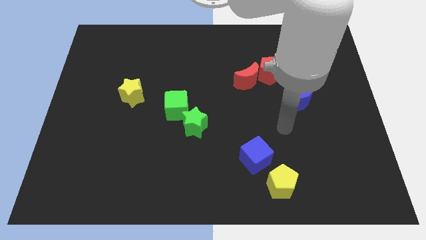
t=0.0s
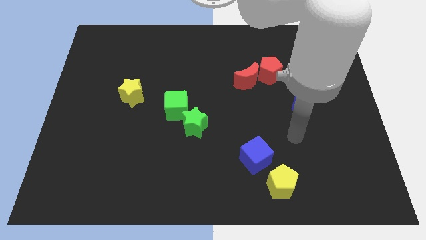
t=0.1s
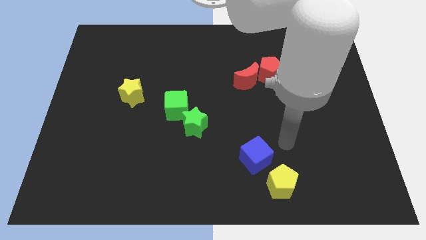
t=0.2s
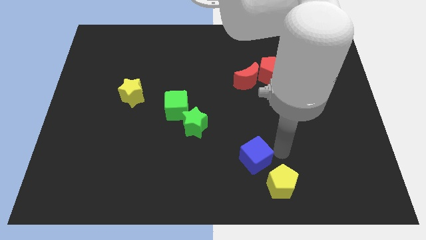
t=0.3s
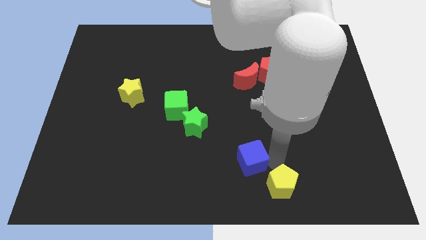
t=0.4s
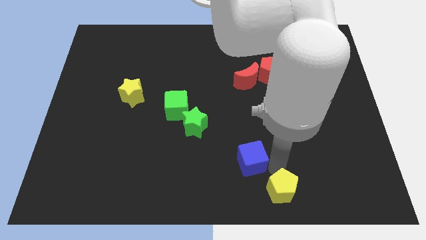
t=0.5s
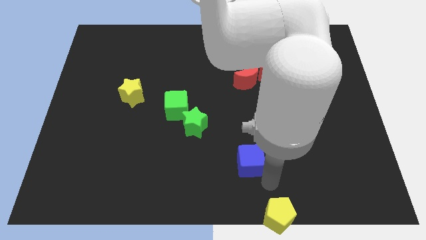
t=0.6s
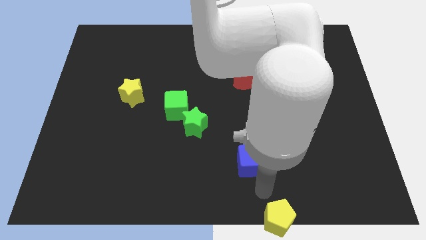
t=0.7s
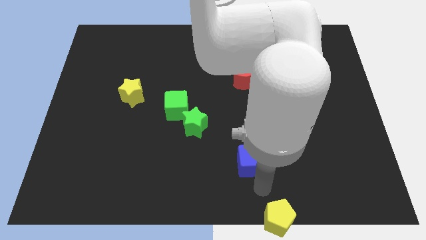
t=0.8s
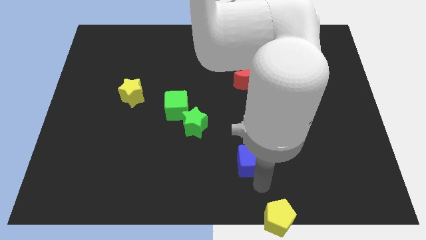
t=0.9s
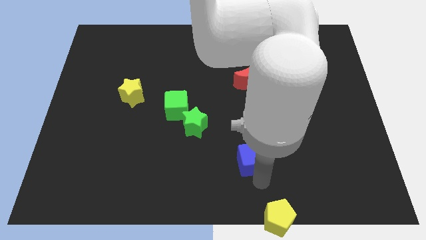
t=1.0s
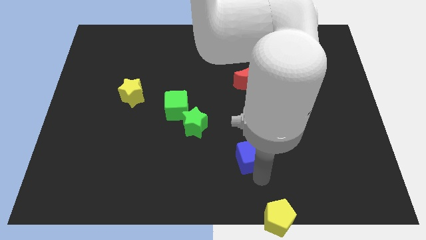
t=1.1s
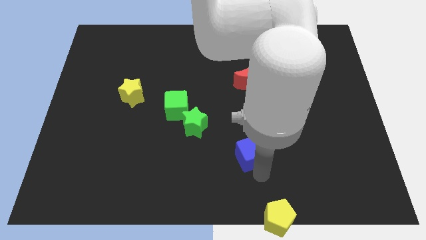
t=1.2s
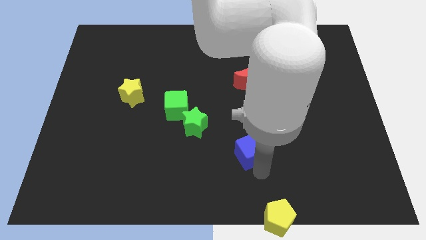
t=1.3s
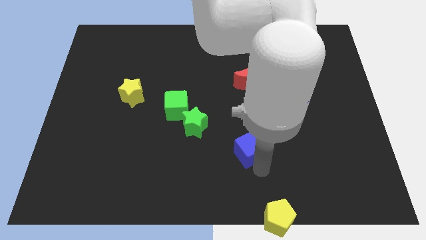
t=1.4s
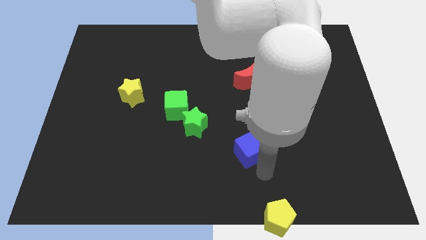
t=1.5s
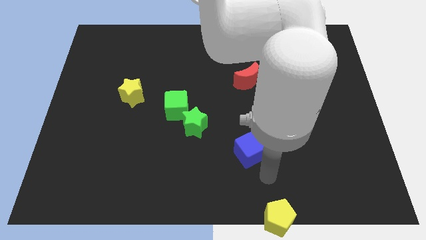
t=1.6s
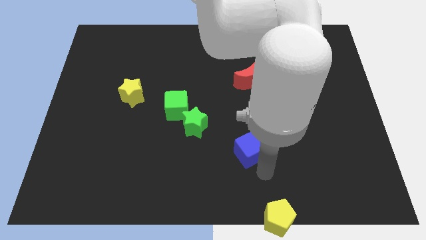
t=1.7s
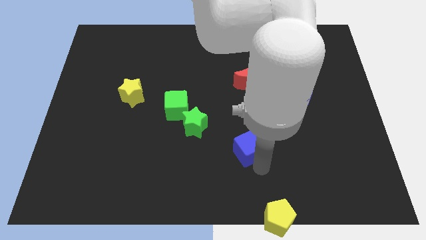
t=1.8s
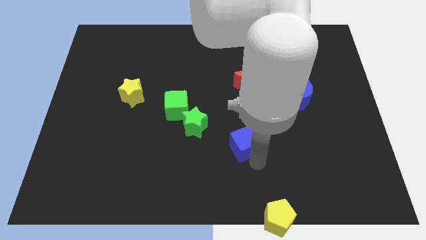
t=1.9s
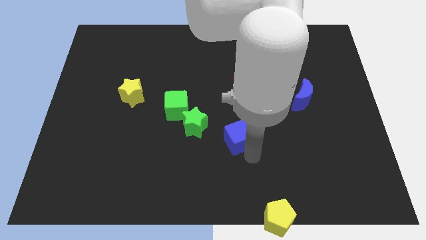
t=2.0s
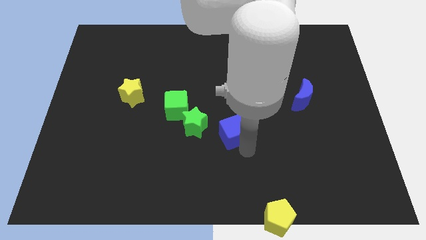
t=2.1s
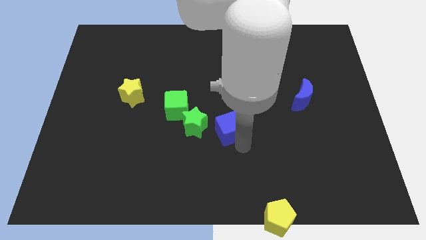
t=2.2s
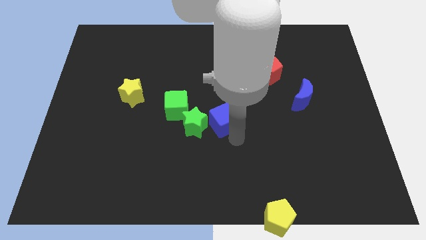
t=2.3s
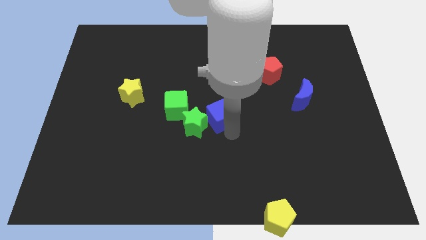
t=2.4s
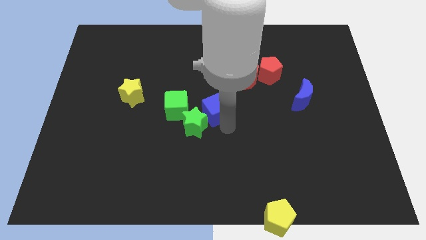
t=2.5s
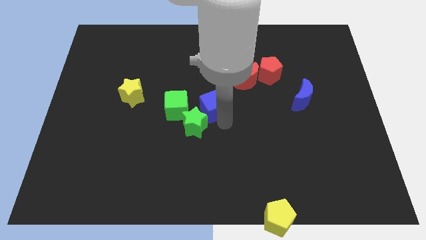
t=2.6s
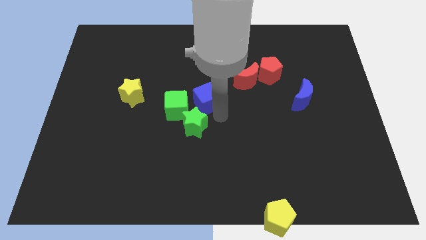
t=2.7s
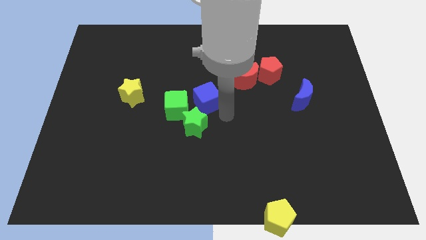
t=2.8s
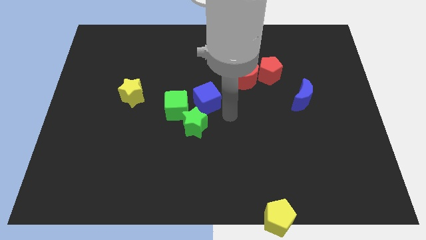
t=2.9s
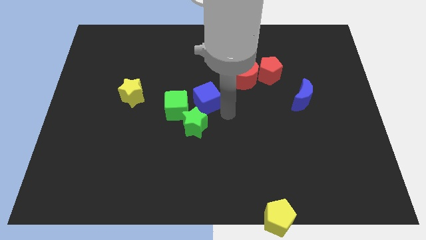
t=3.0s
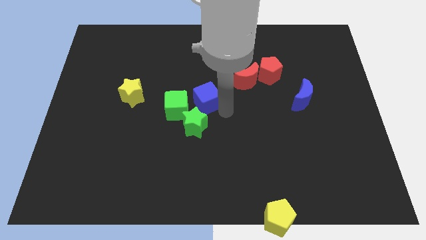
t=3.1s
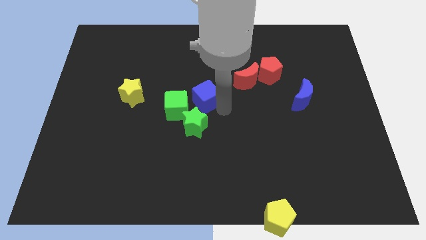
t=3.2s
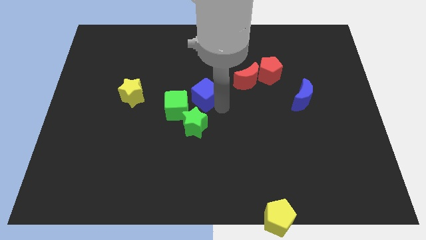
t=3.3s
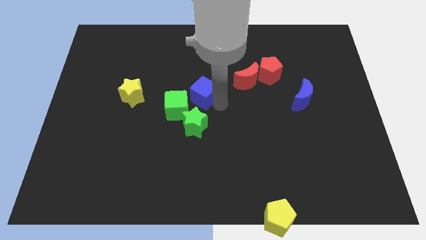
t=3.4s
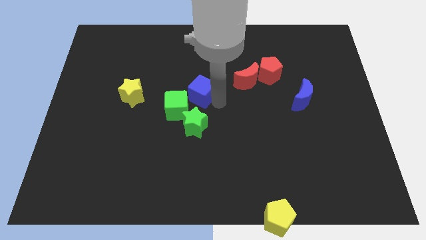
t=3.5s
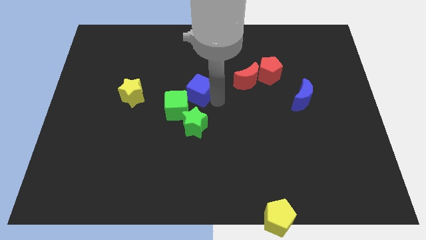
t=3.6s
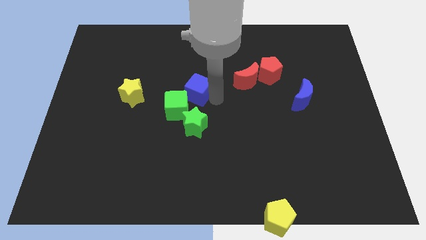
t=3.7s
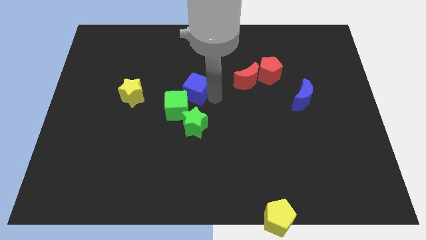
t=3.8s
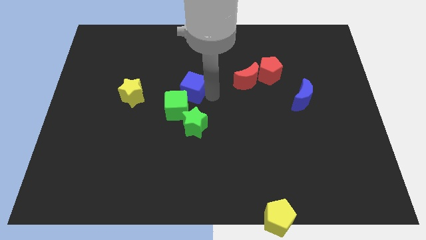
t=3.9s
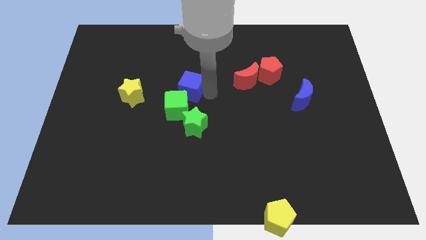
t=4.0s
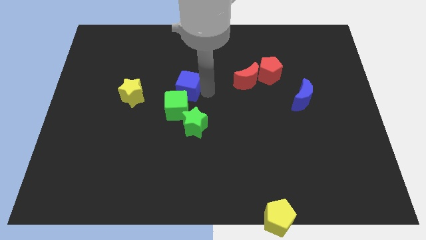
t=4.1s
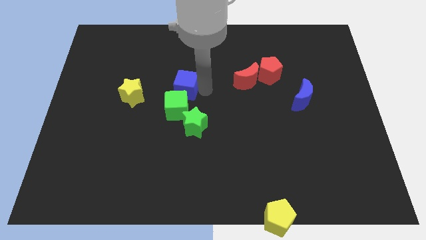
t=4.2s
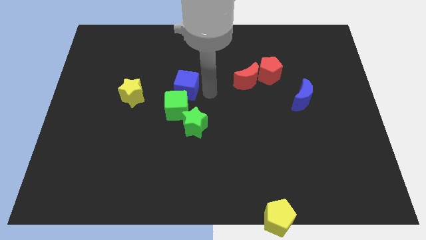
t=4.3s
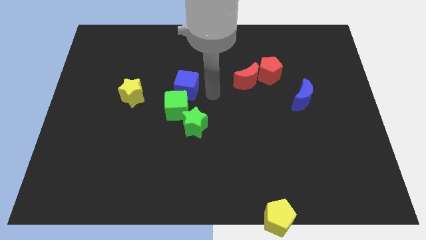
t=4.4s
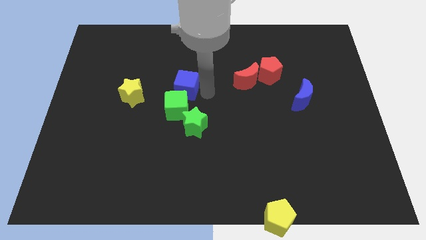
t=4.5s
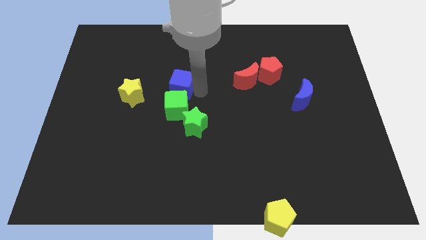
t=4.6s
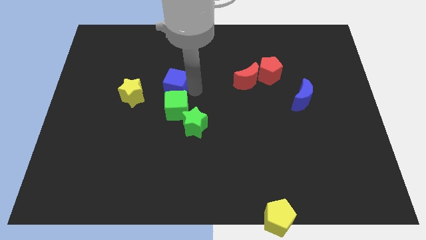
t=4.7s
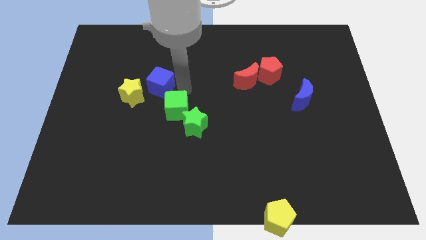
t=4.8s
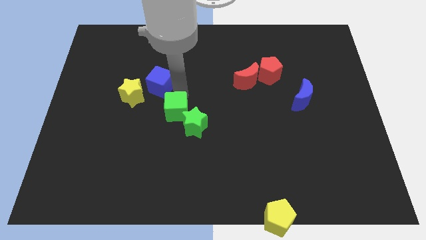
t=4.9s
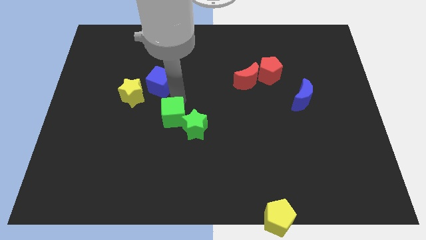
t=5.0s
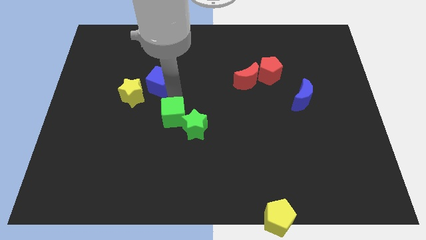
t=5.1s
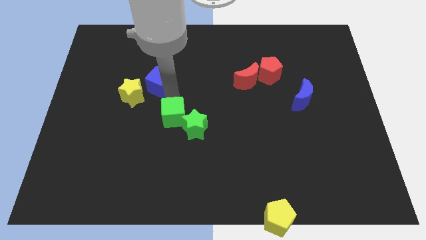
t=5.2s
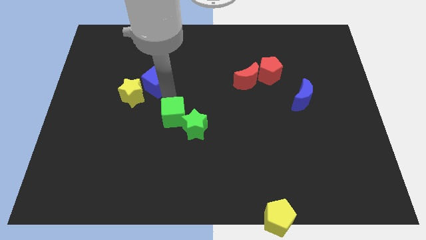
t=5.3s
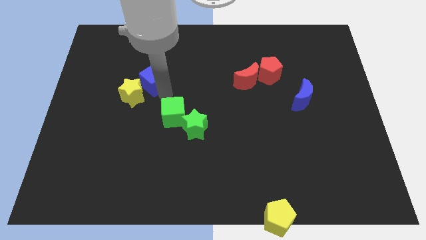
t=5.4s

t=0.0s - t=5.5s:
push the blue cube to the top of the yellow star

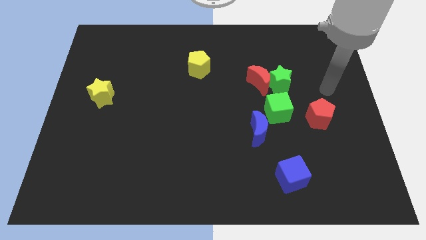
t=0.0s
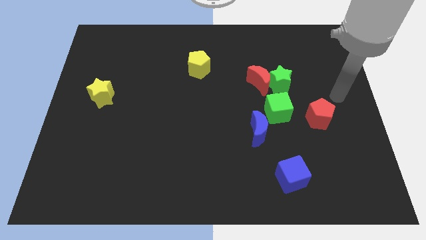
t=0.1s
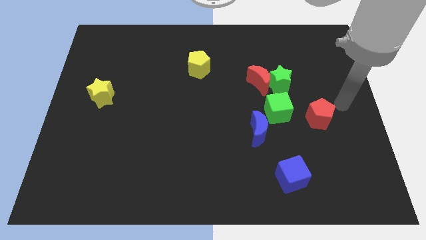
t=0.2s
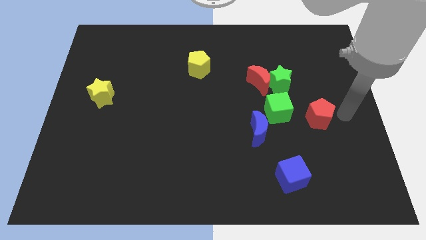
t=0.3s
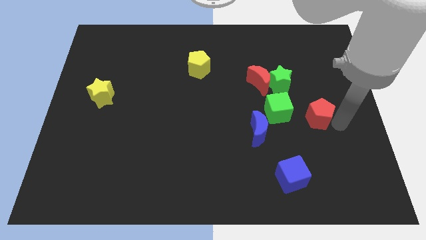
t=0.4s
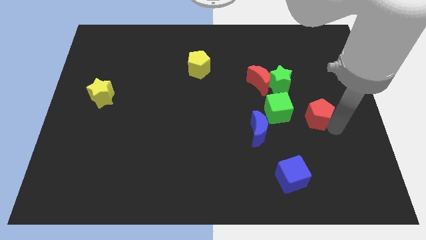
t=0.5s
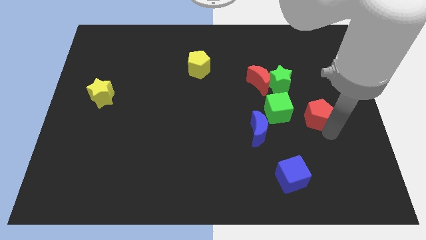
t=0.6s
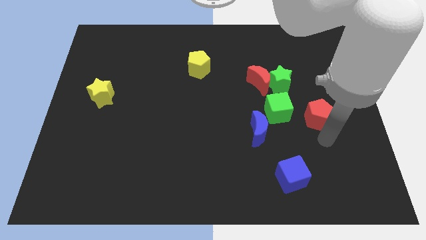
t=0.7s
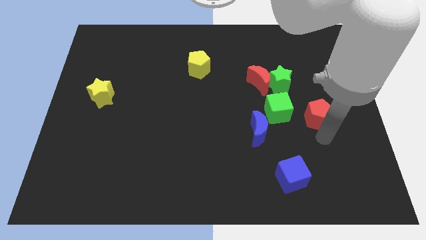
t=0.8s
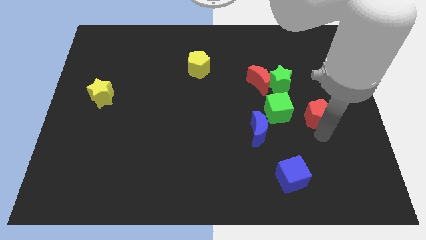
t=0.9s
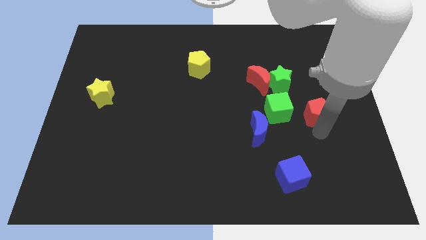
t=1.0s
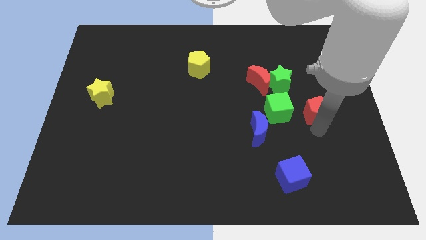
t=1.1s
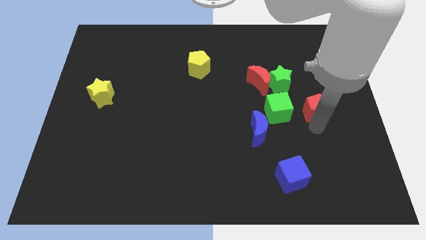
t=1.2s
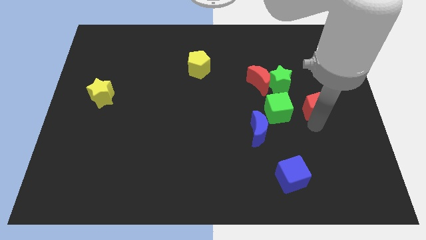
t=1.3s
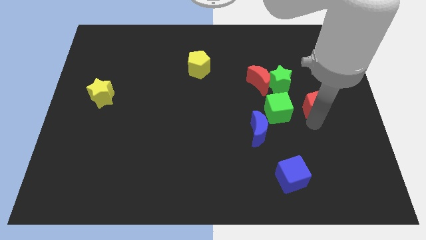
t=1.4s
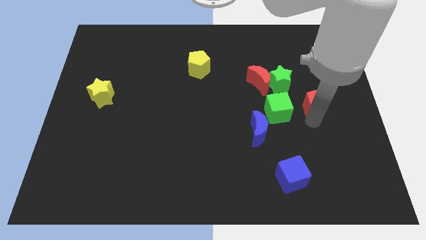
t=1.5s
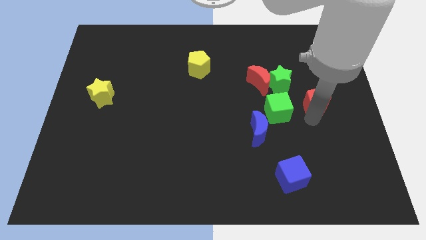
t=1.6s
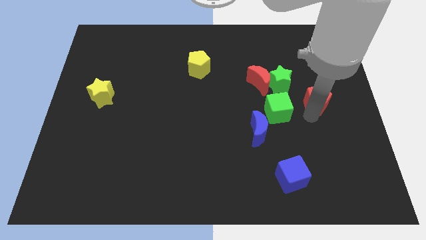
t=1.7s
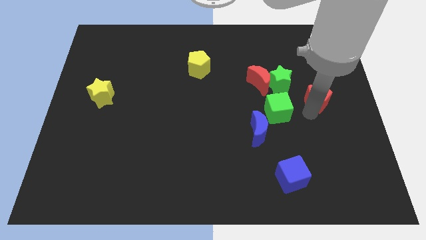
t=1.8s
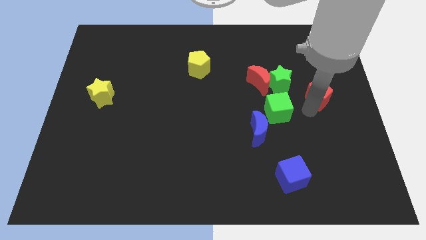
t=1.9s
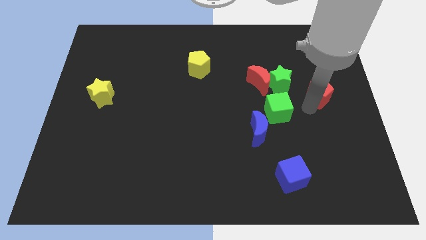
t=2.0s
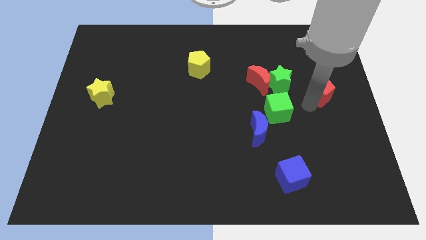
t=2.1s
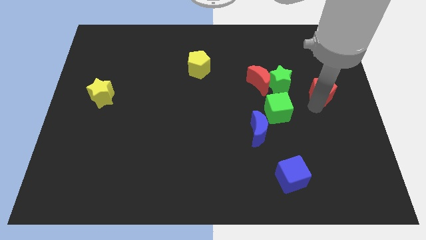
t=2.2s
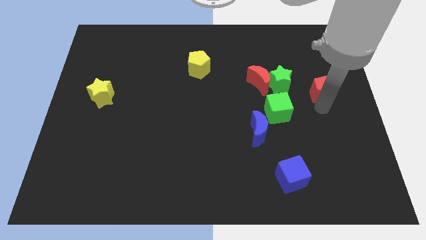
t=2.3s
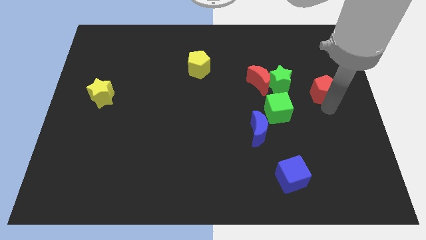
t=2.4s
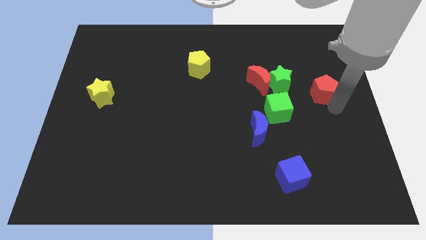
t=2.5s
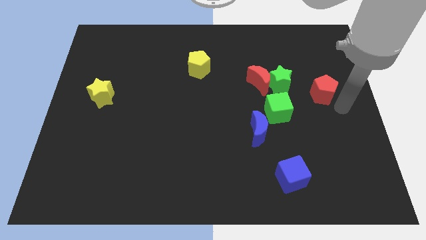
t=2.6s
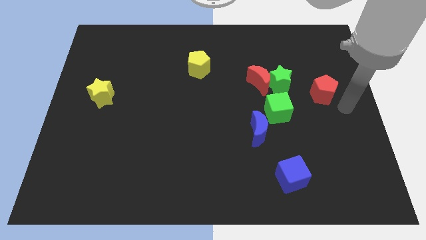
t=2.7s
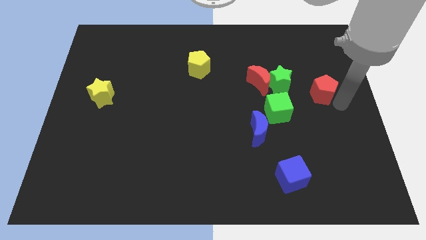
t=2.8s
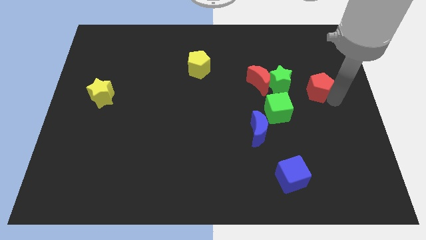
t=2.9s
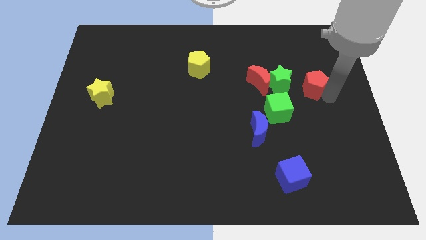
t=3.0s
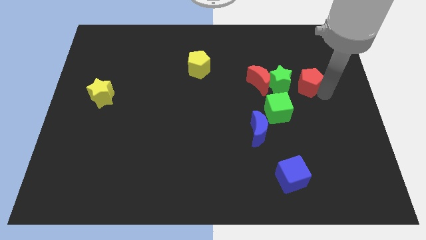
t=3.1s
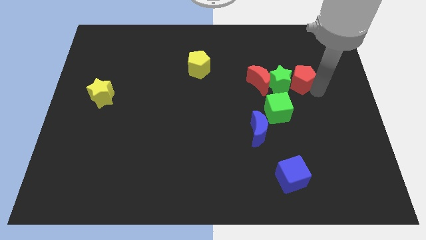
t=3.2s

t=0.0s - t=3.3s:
put the red pentagon to the top right side of the green star
